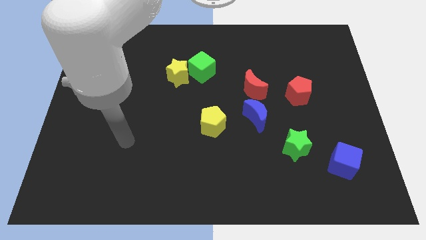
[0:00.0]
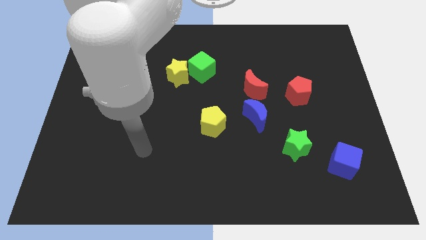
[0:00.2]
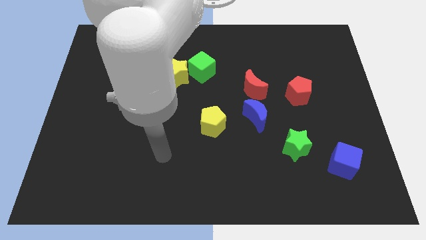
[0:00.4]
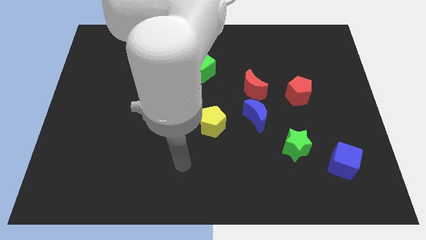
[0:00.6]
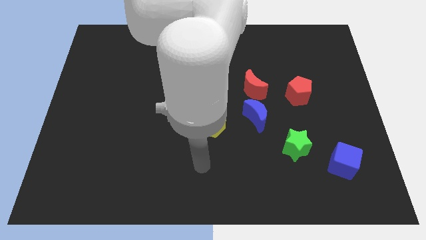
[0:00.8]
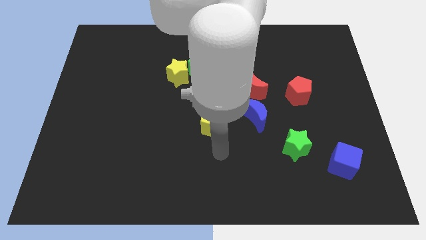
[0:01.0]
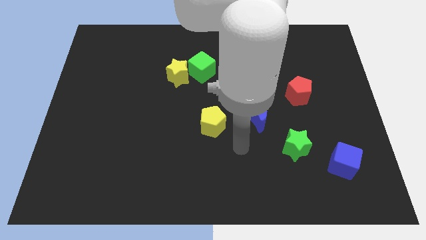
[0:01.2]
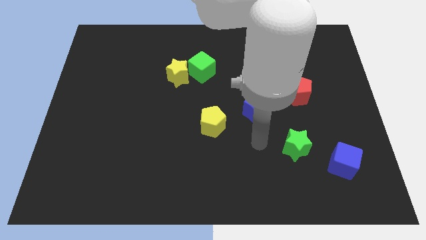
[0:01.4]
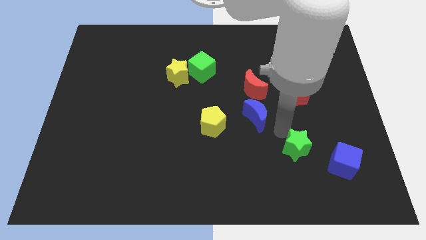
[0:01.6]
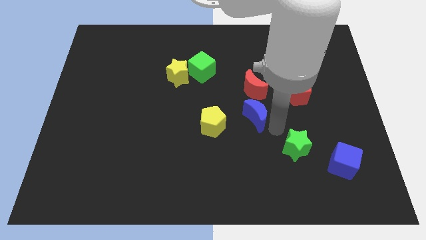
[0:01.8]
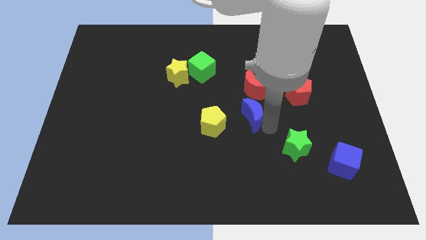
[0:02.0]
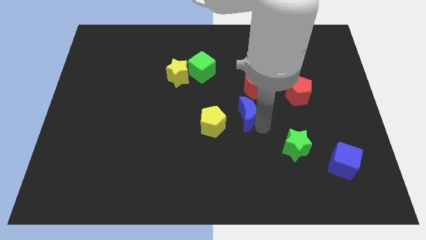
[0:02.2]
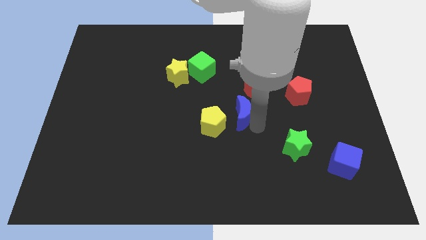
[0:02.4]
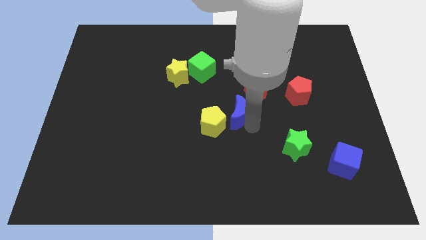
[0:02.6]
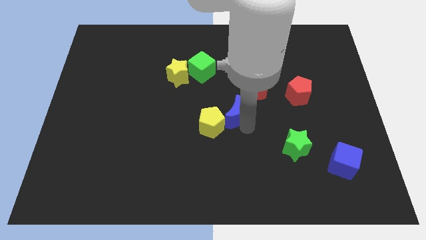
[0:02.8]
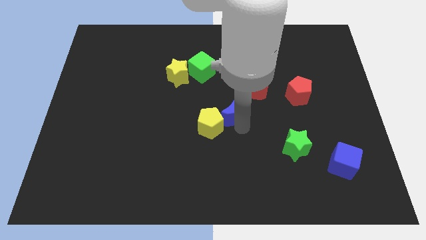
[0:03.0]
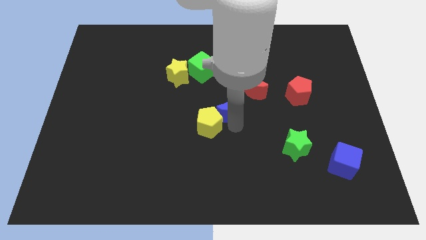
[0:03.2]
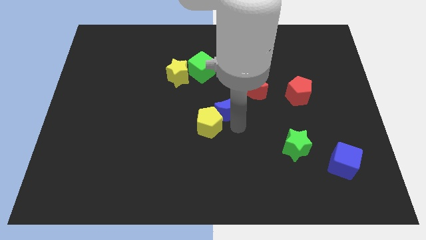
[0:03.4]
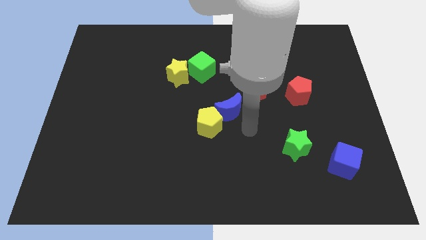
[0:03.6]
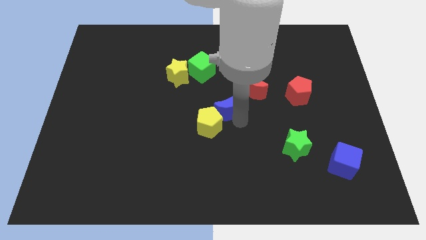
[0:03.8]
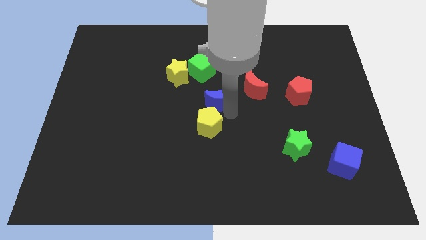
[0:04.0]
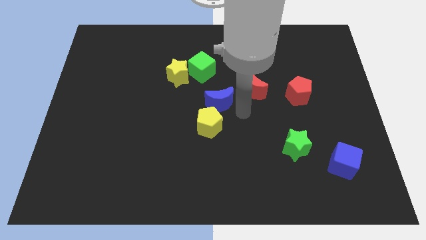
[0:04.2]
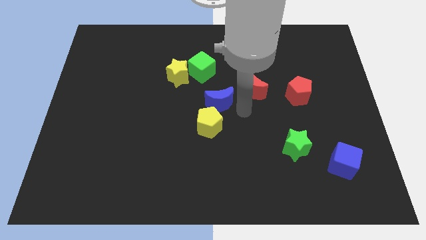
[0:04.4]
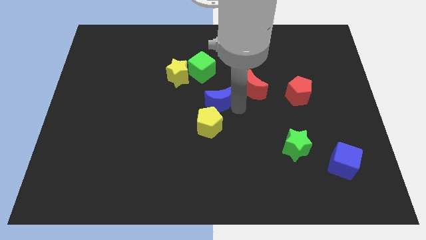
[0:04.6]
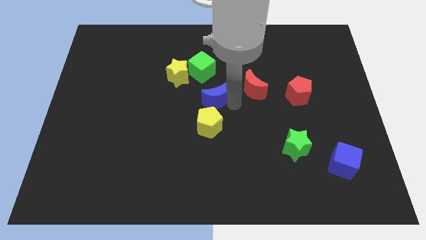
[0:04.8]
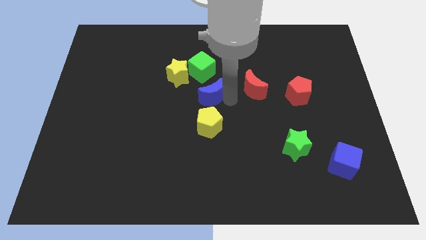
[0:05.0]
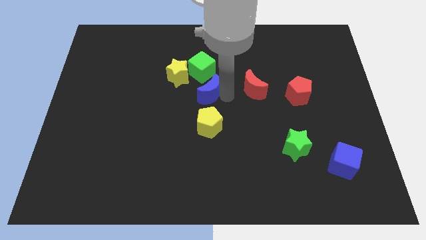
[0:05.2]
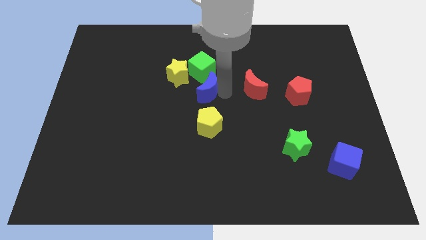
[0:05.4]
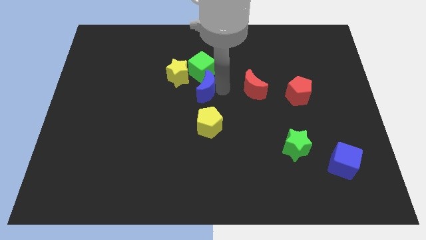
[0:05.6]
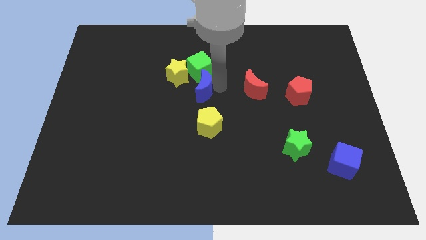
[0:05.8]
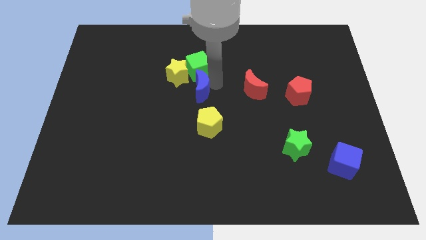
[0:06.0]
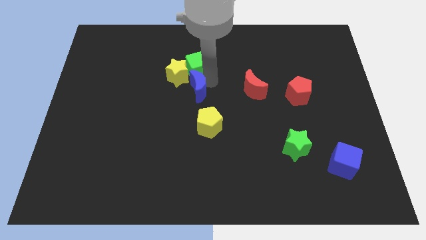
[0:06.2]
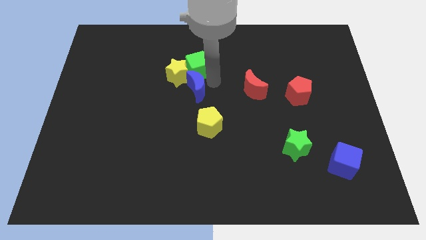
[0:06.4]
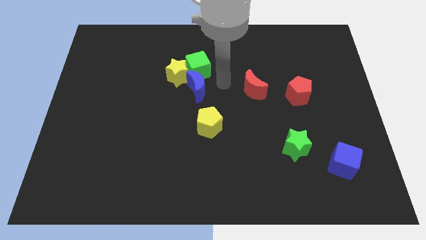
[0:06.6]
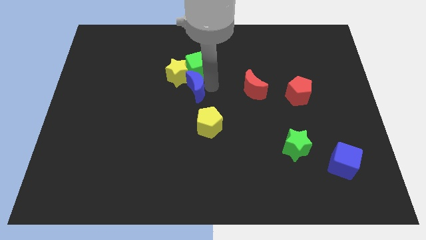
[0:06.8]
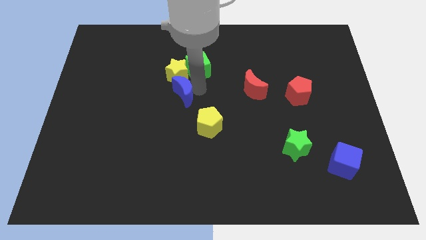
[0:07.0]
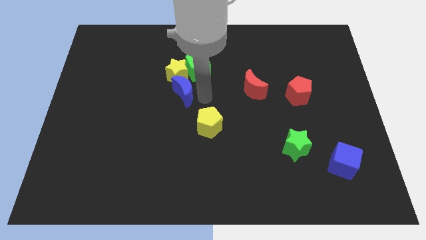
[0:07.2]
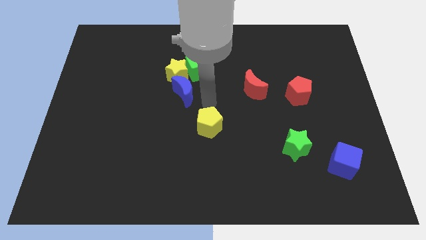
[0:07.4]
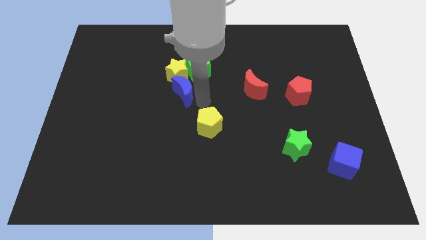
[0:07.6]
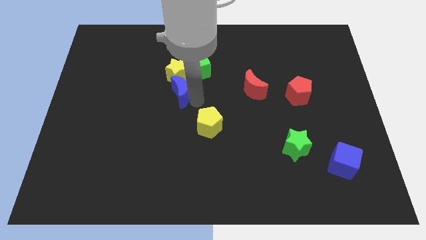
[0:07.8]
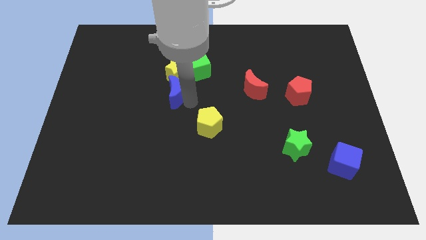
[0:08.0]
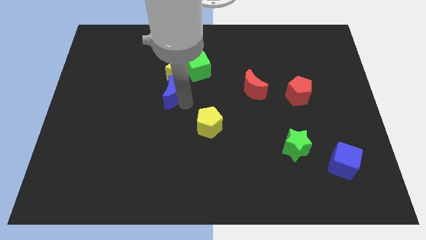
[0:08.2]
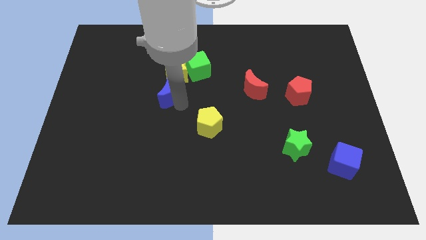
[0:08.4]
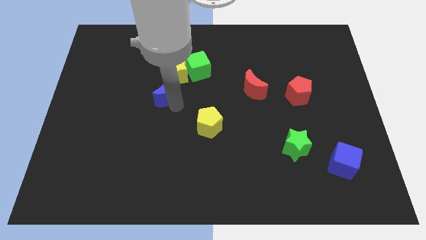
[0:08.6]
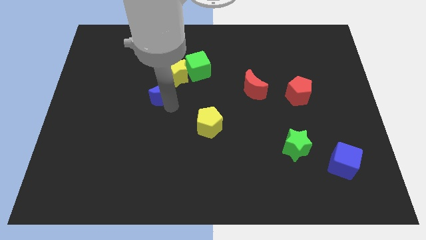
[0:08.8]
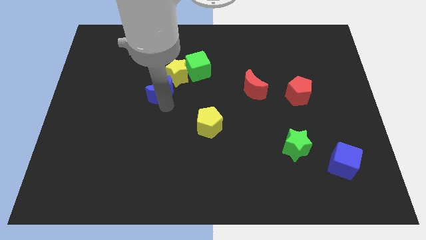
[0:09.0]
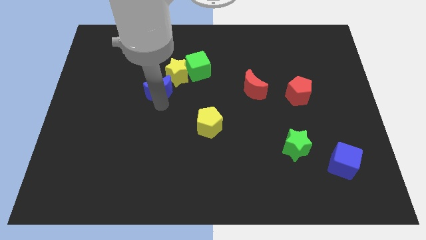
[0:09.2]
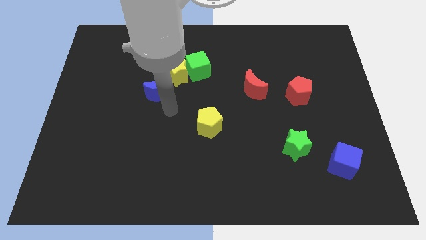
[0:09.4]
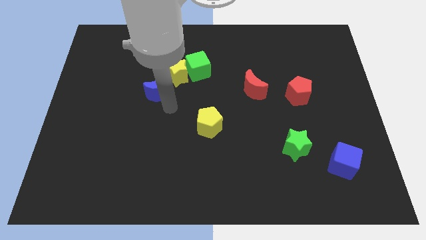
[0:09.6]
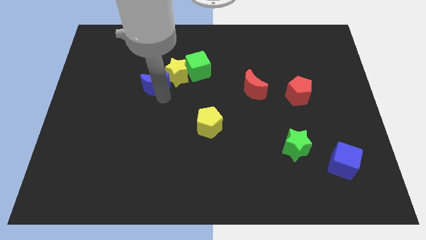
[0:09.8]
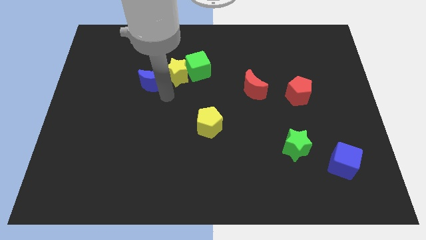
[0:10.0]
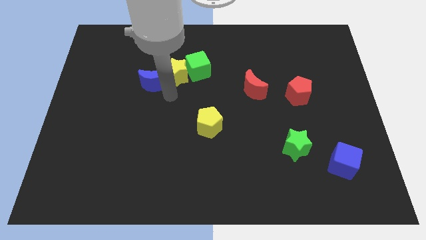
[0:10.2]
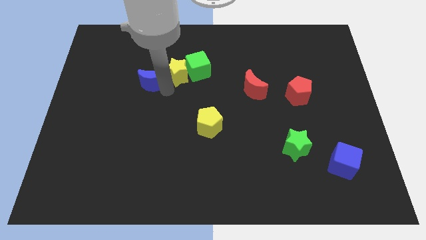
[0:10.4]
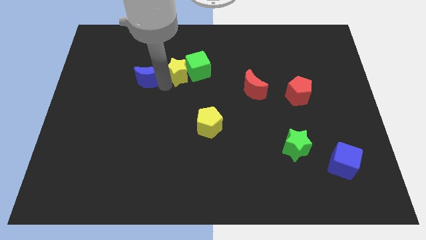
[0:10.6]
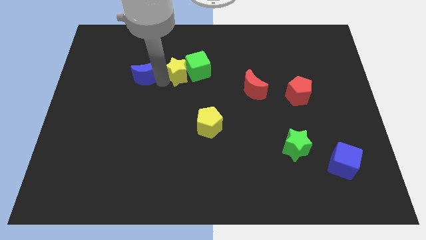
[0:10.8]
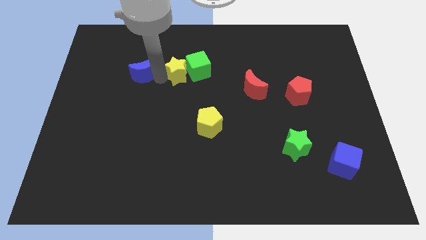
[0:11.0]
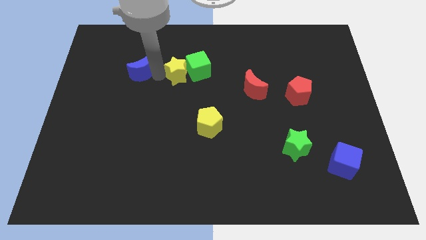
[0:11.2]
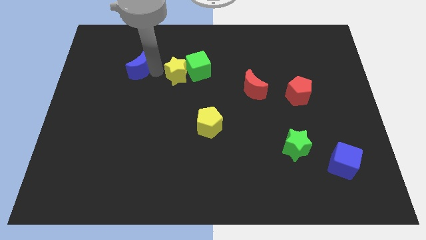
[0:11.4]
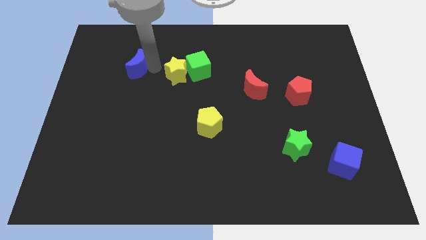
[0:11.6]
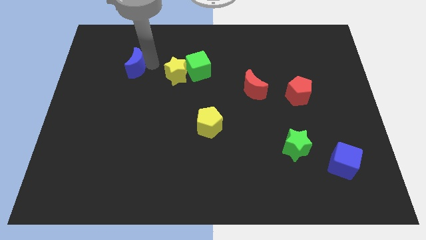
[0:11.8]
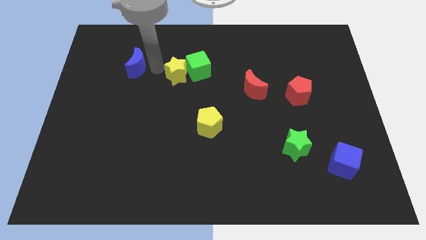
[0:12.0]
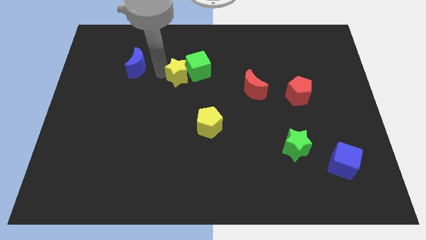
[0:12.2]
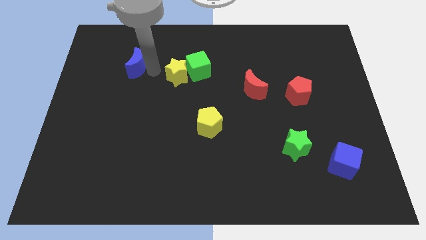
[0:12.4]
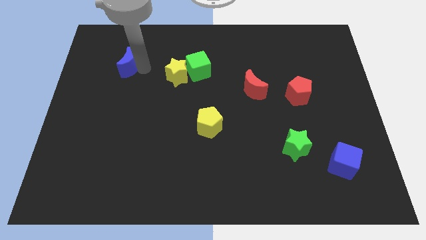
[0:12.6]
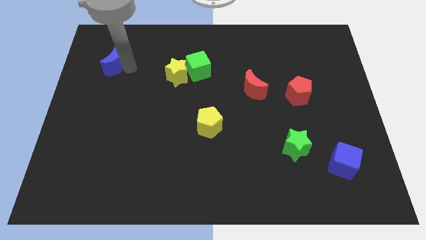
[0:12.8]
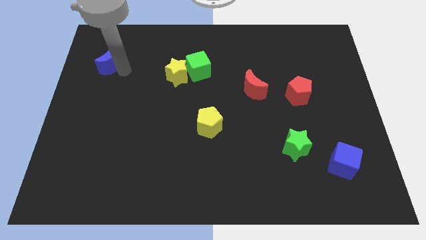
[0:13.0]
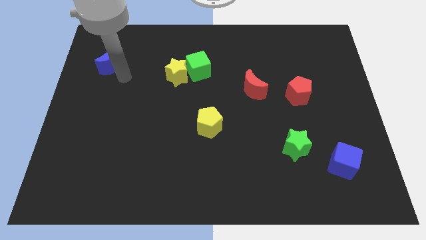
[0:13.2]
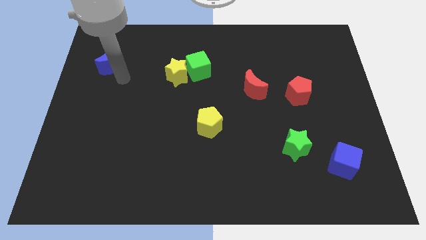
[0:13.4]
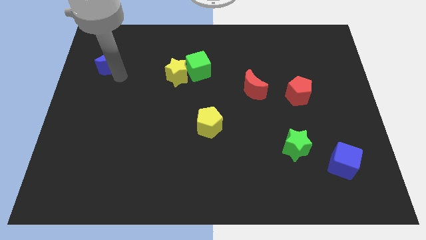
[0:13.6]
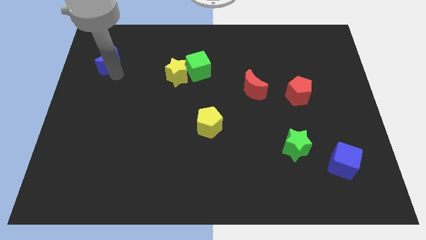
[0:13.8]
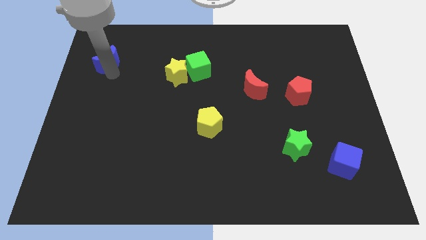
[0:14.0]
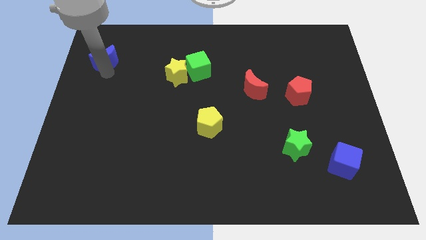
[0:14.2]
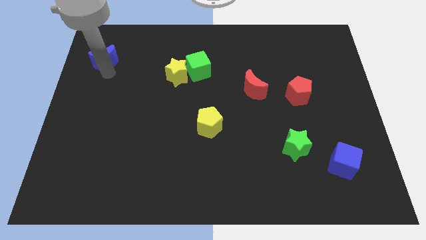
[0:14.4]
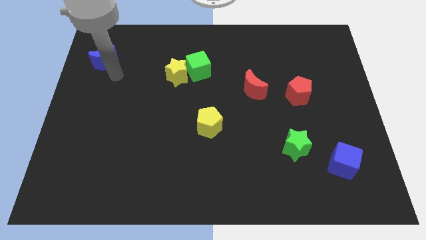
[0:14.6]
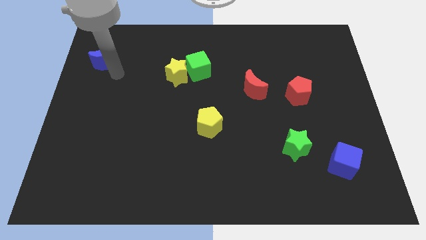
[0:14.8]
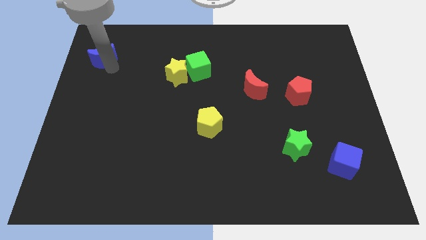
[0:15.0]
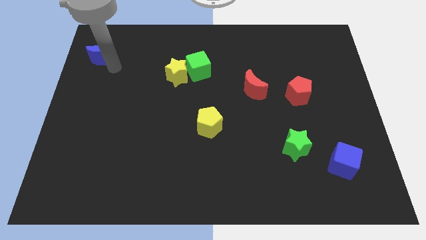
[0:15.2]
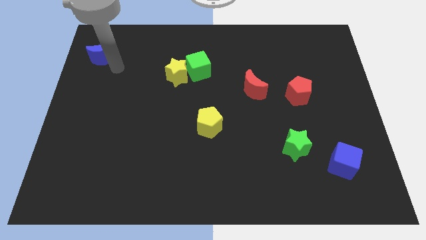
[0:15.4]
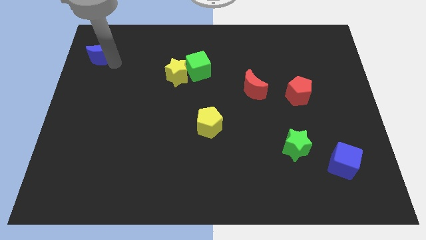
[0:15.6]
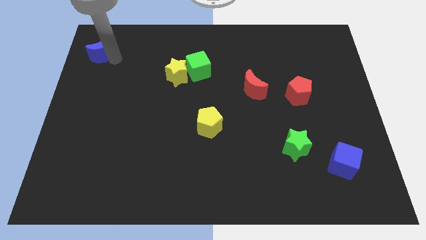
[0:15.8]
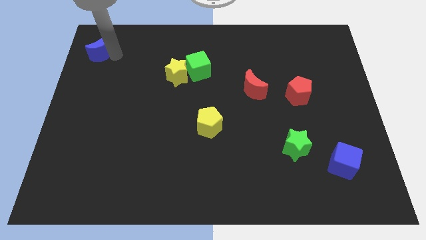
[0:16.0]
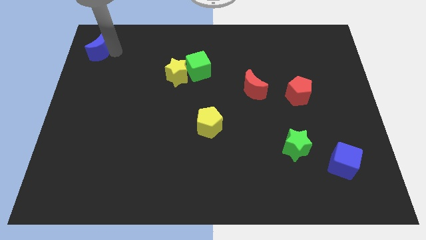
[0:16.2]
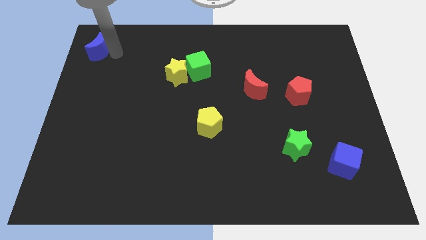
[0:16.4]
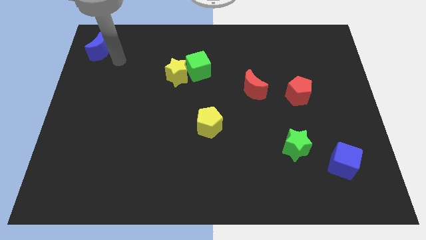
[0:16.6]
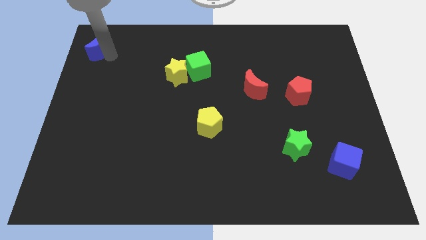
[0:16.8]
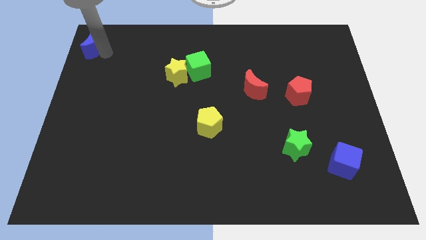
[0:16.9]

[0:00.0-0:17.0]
slide the blue moon to the top left corner
